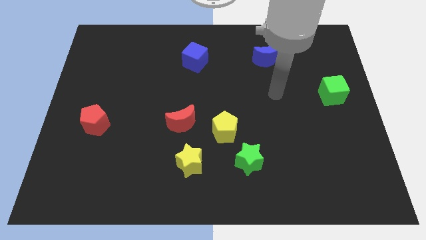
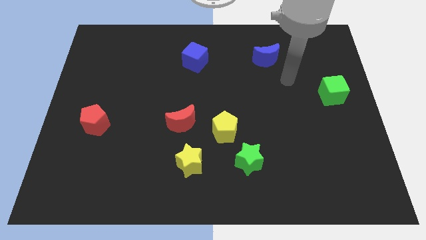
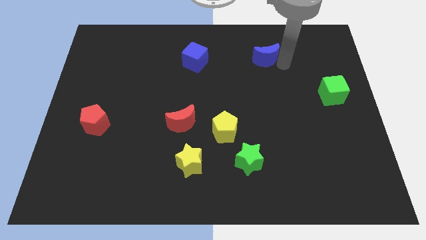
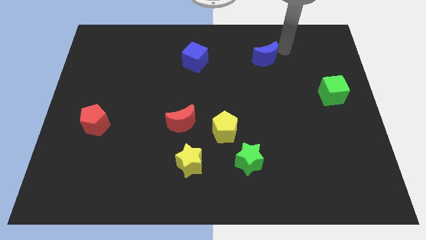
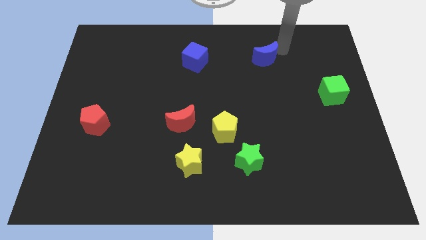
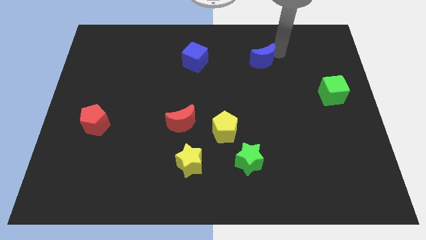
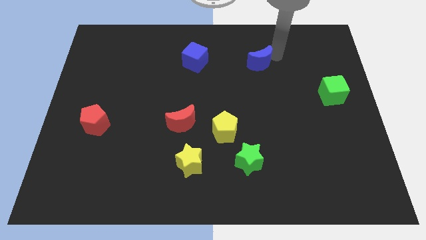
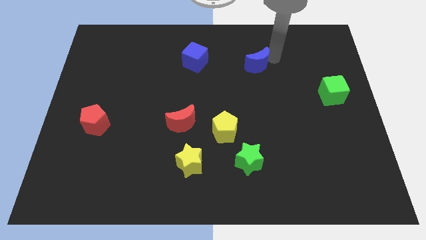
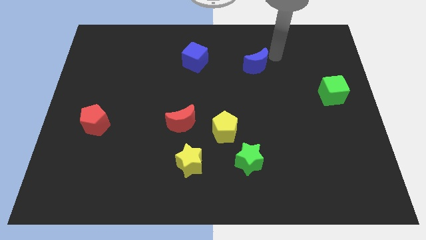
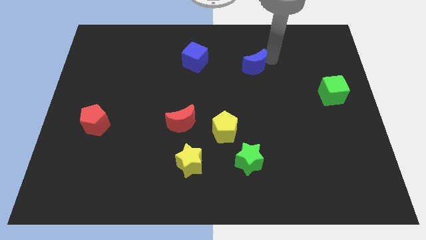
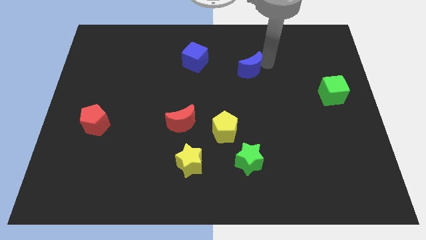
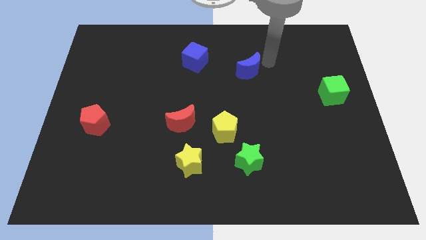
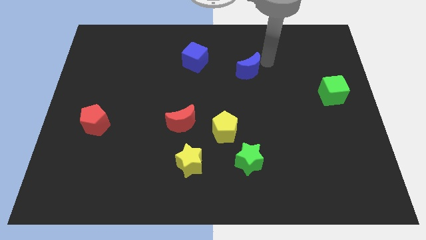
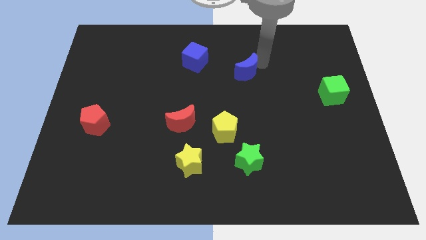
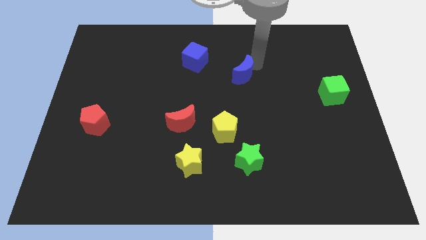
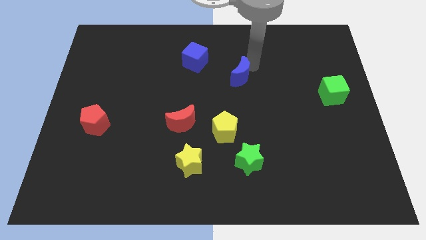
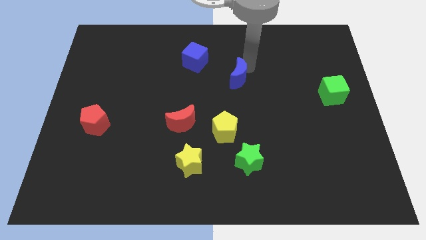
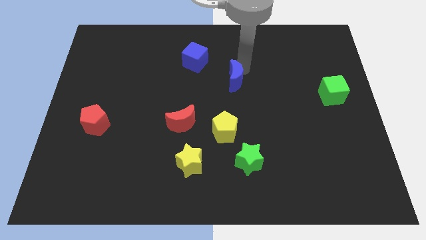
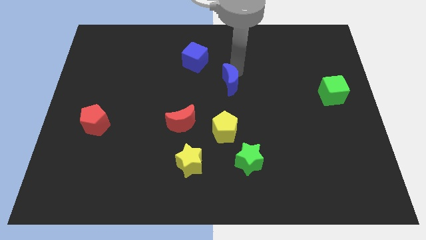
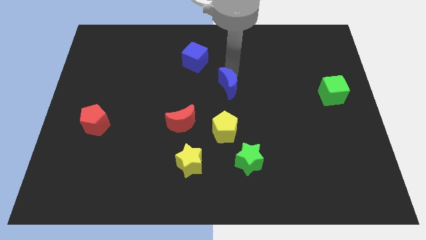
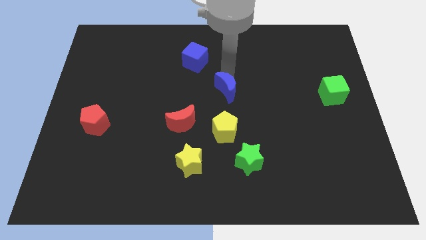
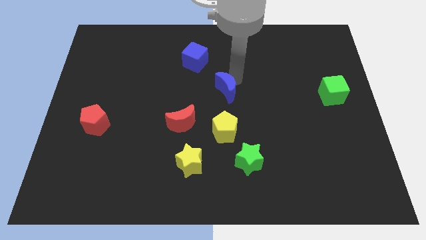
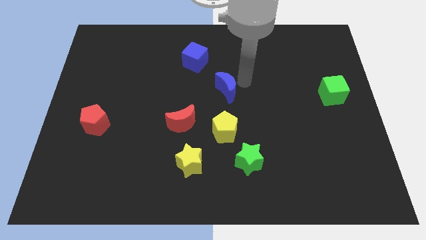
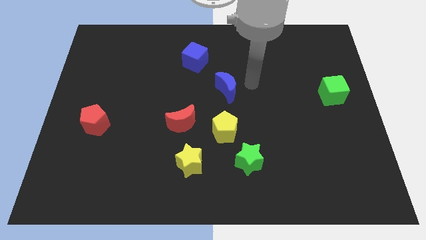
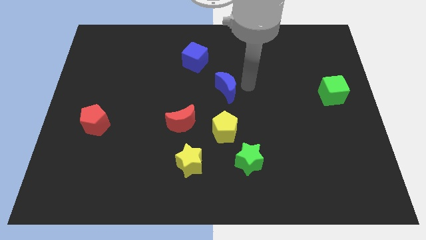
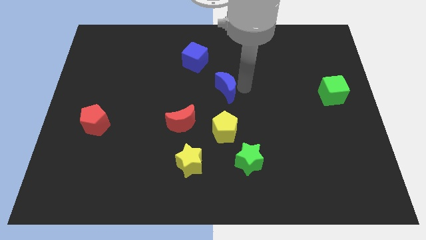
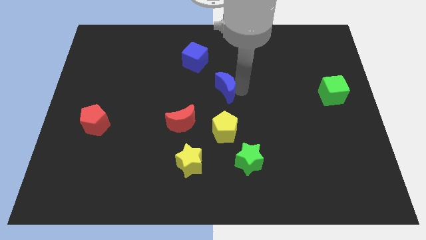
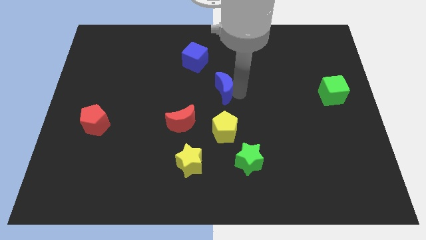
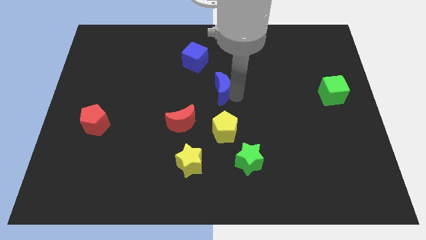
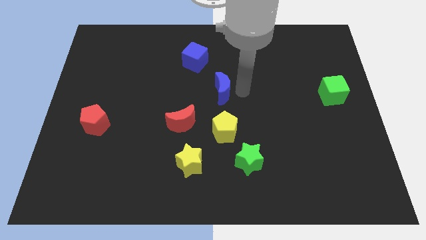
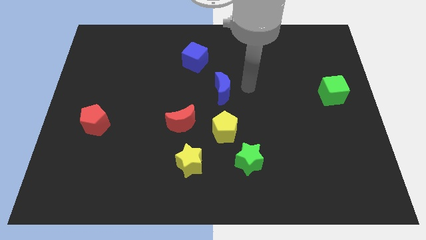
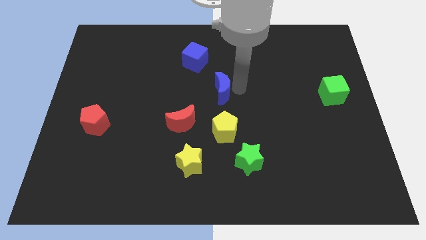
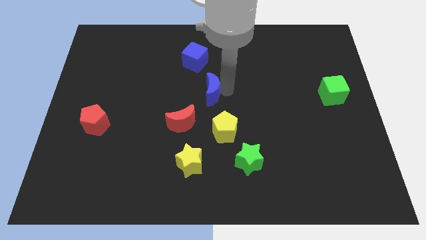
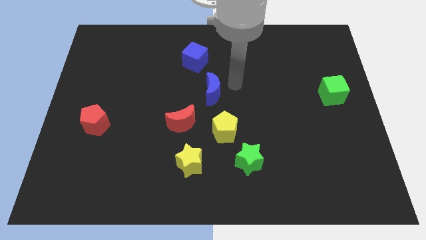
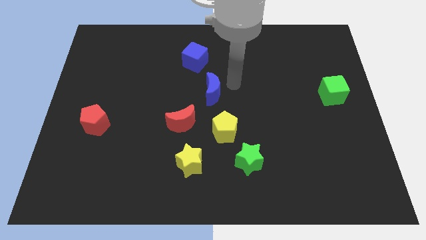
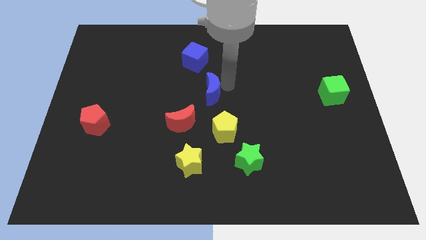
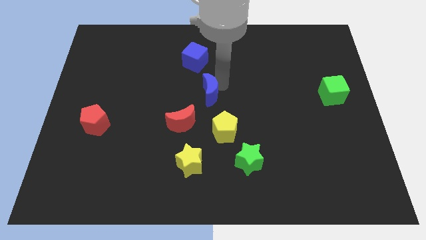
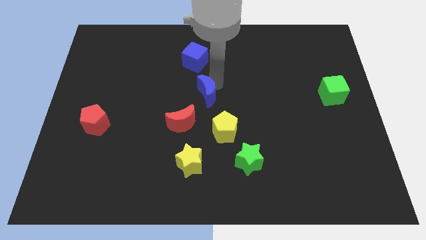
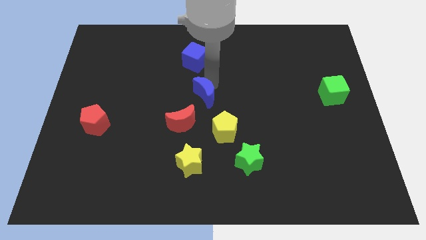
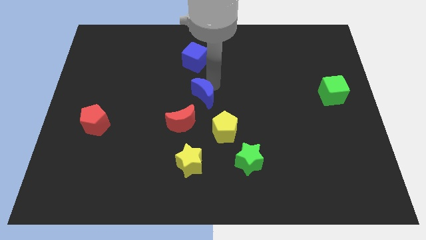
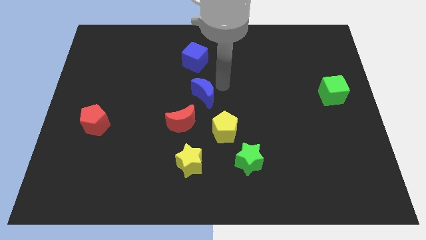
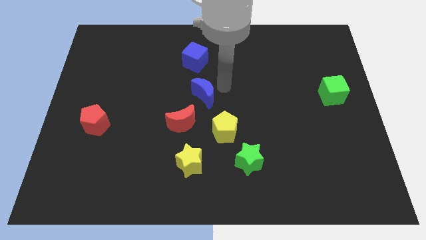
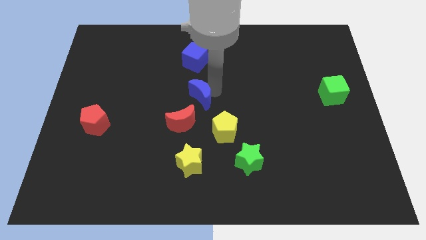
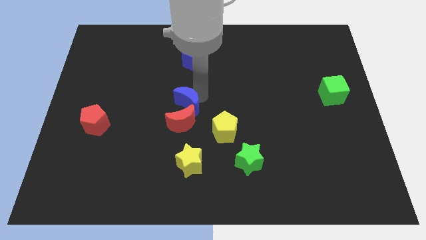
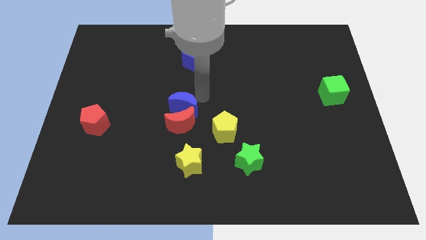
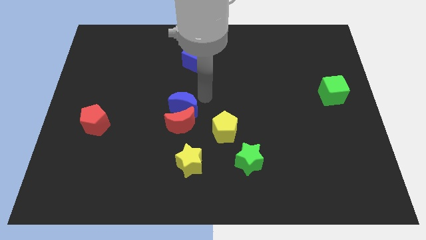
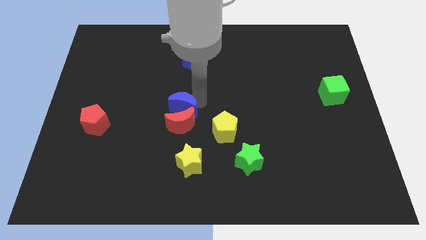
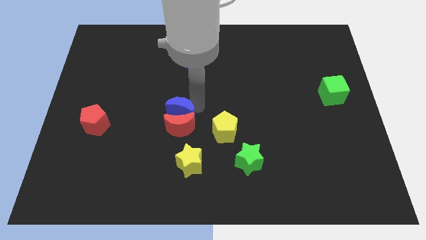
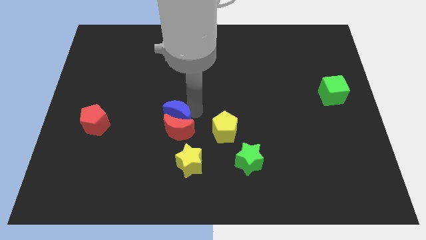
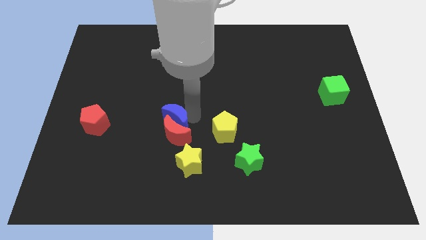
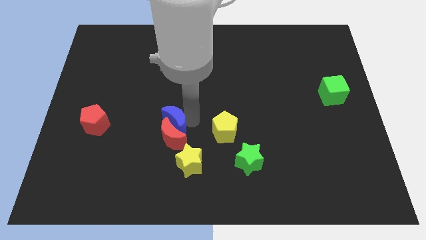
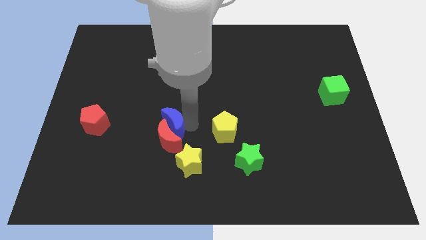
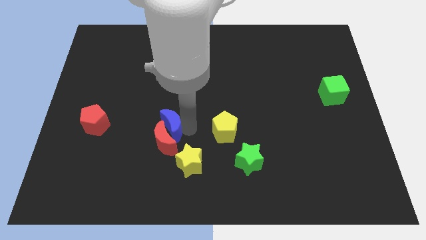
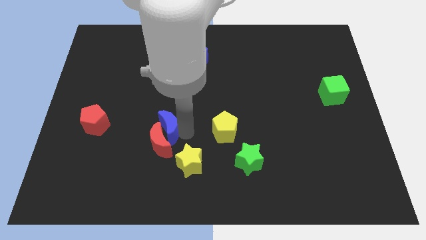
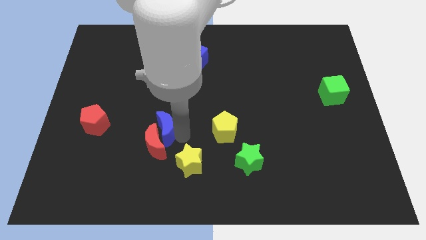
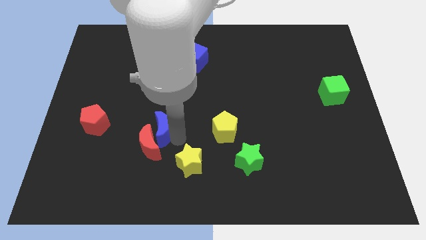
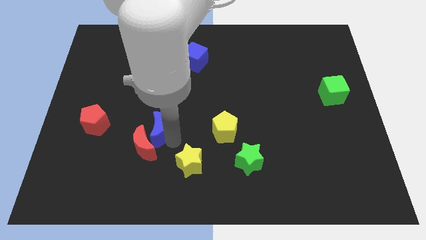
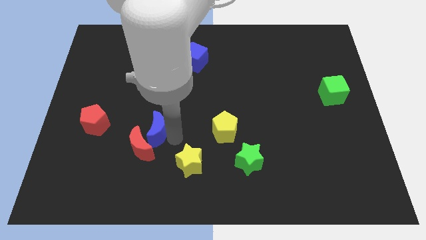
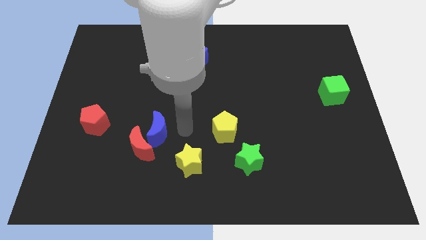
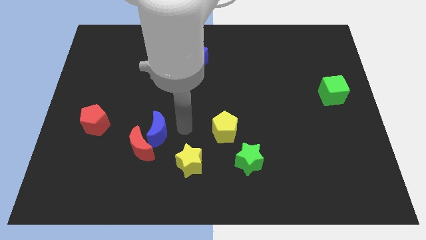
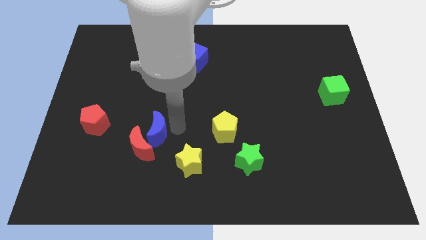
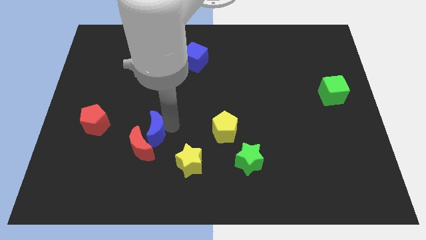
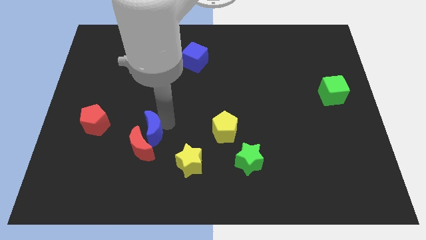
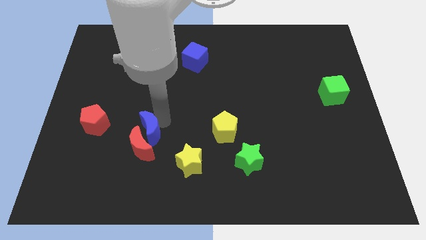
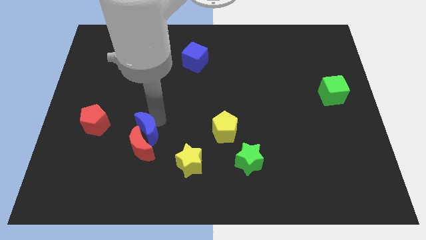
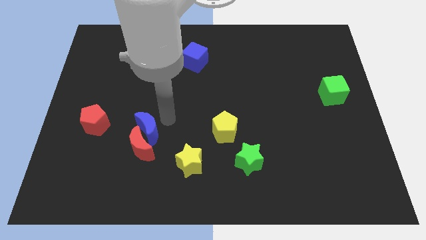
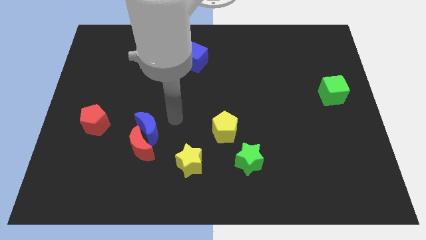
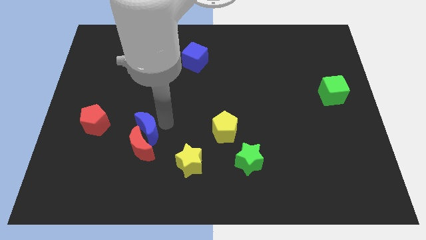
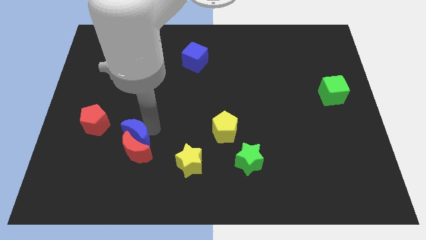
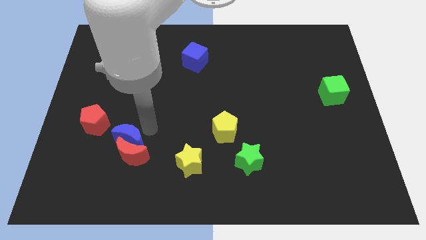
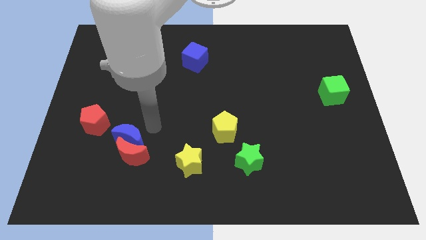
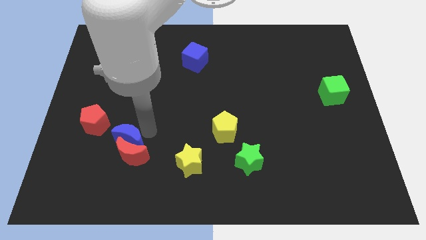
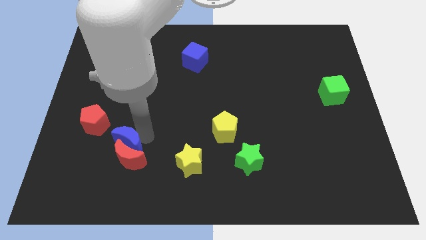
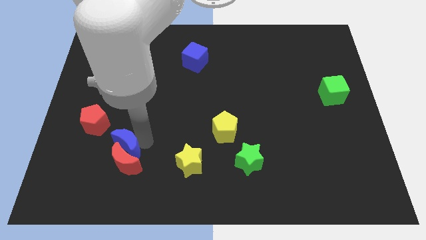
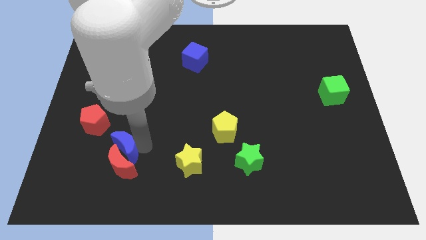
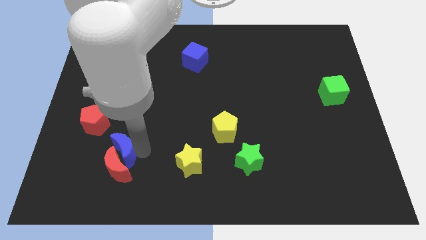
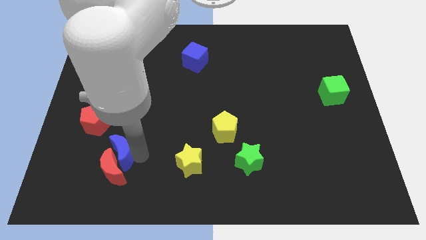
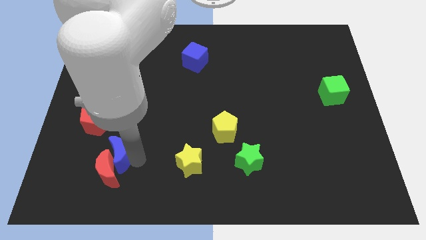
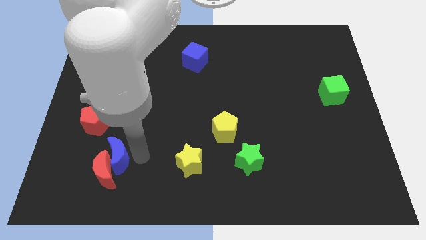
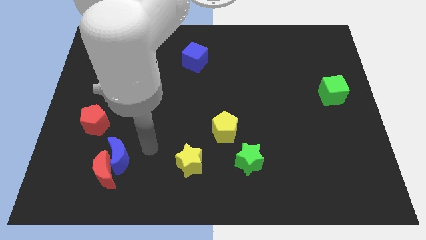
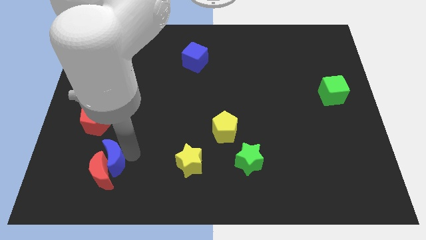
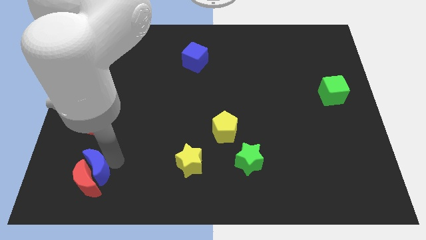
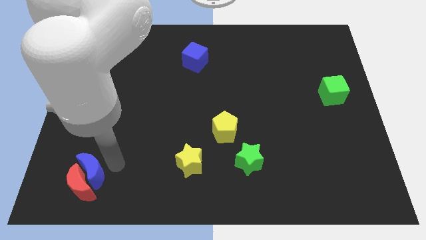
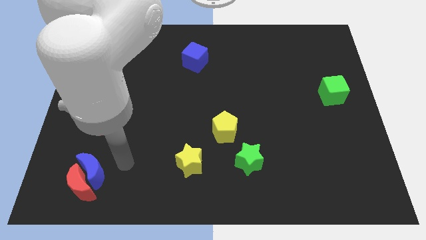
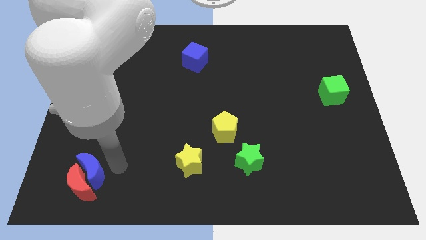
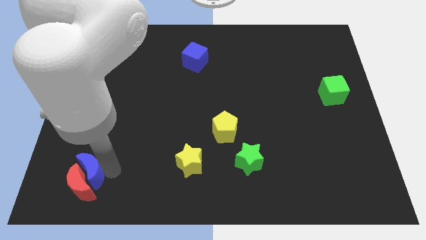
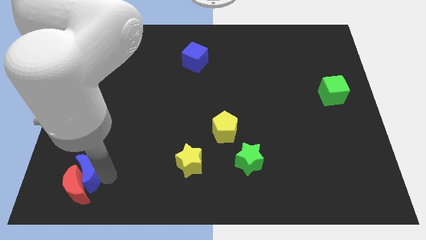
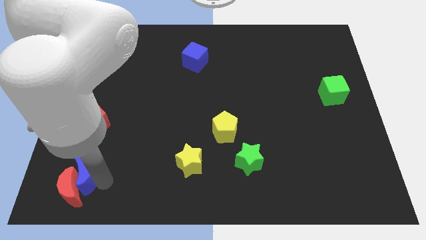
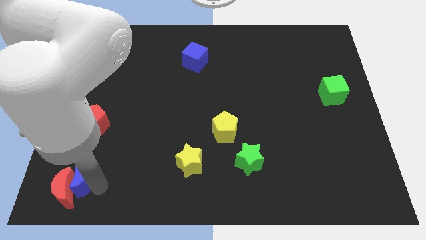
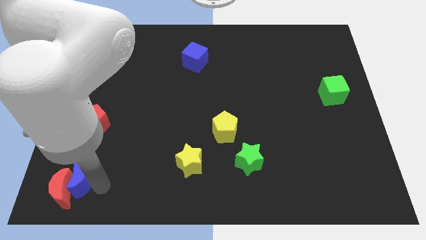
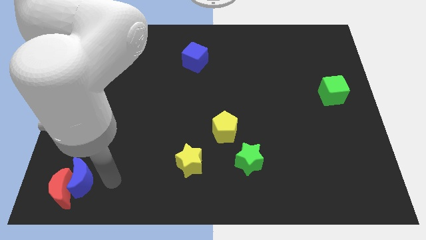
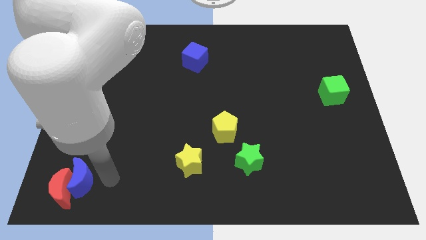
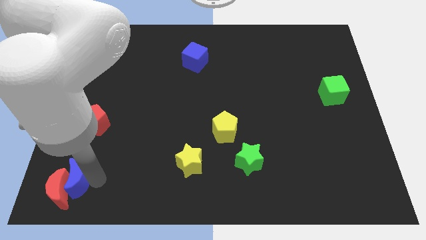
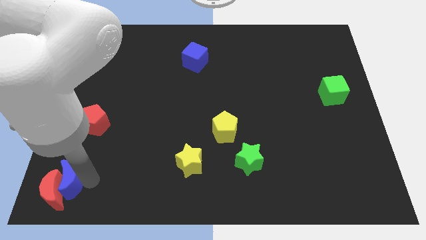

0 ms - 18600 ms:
move the blue moon to the bottom left of the board
